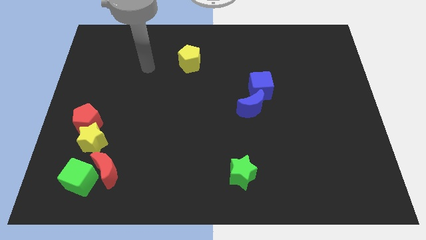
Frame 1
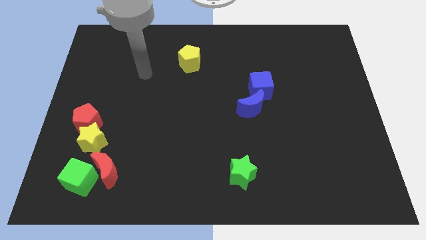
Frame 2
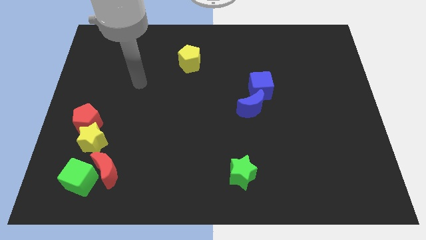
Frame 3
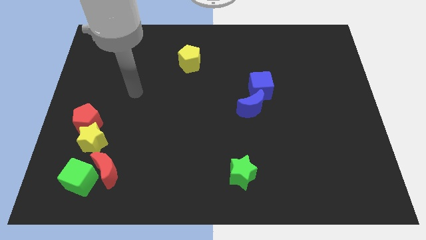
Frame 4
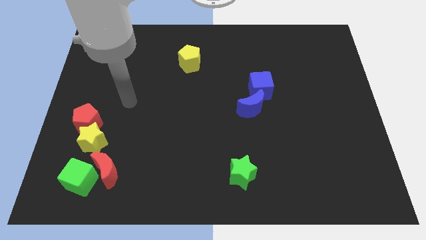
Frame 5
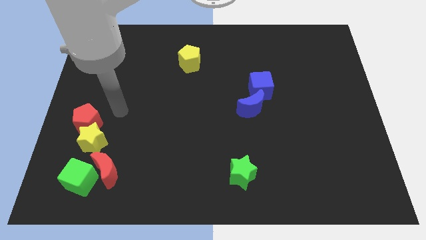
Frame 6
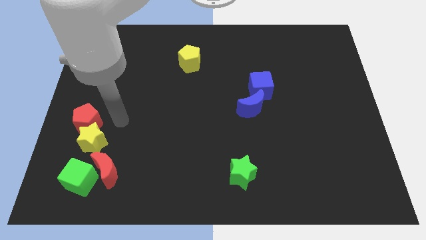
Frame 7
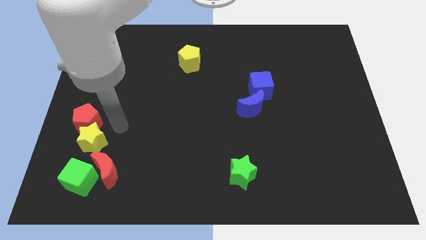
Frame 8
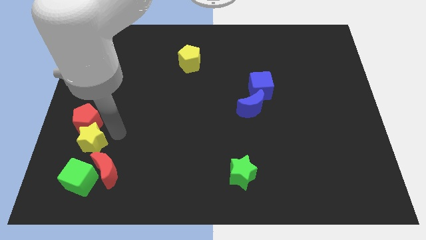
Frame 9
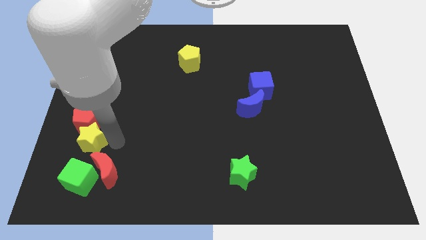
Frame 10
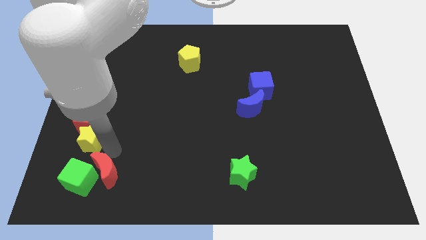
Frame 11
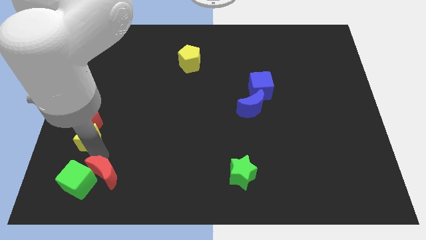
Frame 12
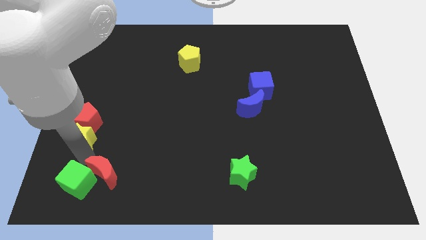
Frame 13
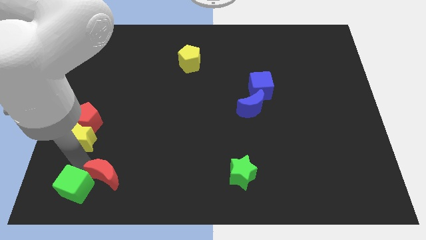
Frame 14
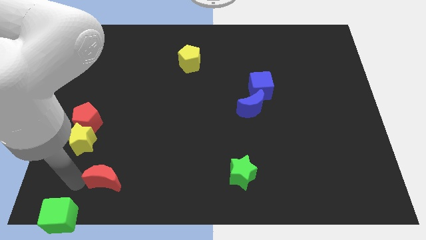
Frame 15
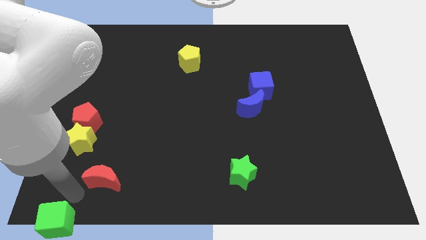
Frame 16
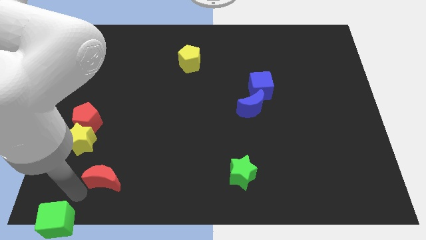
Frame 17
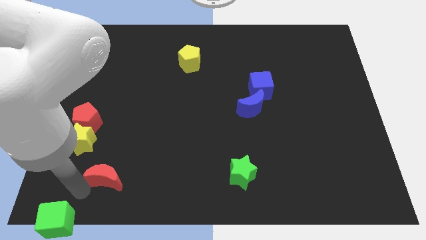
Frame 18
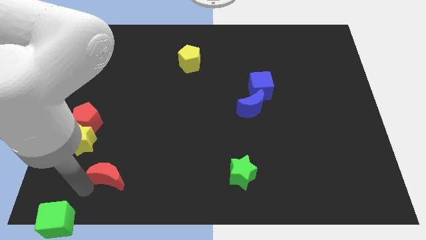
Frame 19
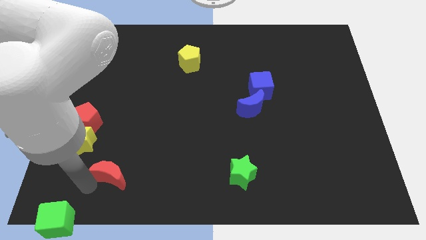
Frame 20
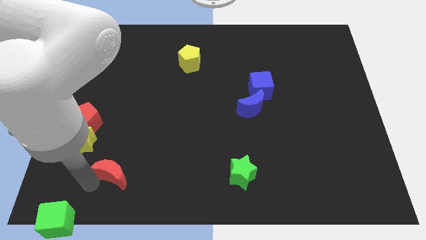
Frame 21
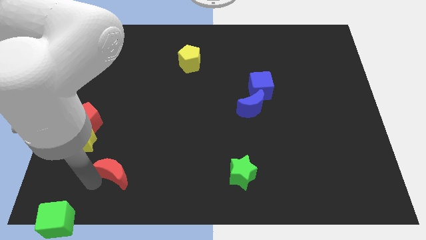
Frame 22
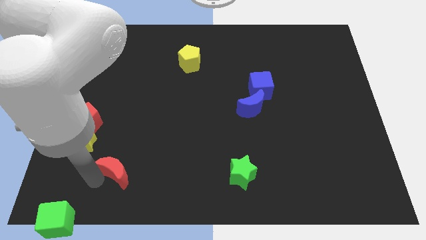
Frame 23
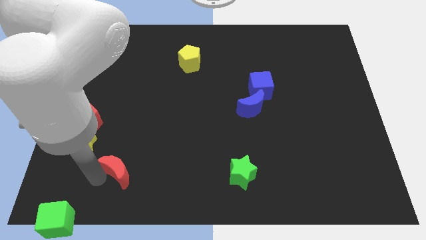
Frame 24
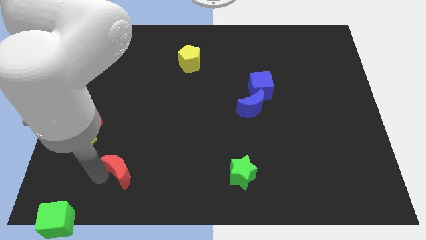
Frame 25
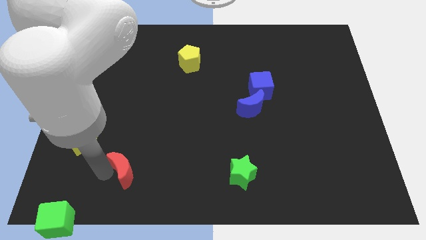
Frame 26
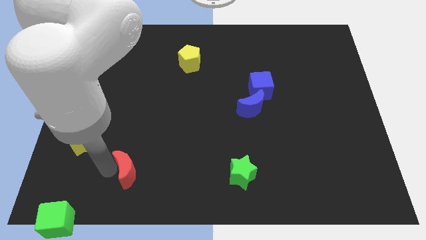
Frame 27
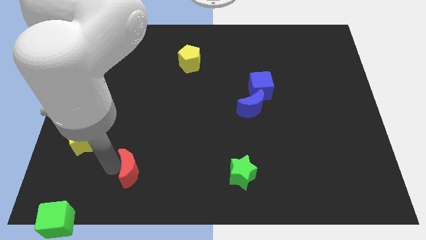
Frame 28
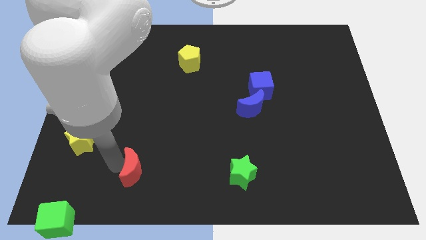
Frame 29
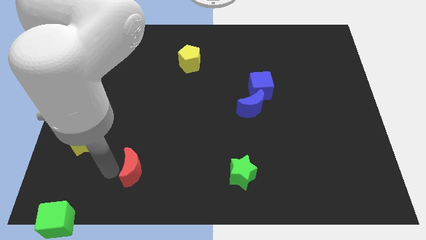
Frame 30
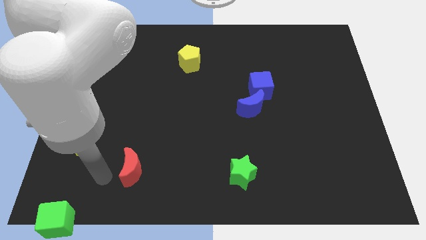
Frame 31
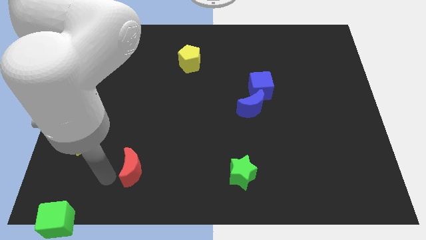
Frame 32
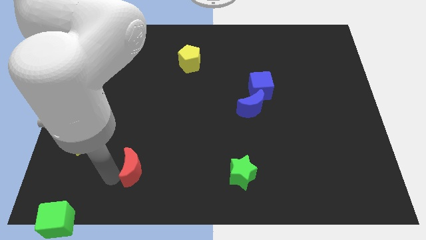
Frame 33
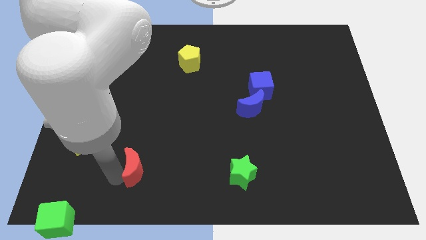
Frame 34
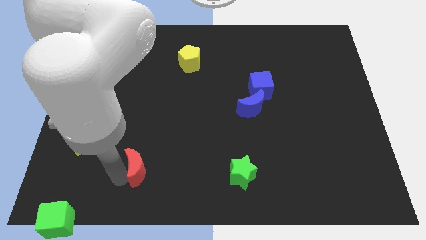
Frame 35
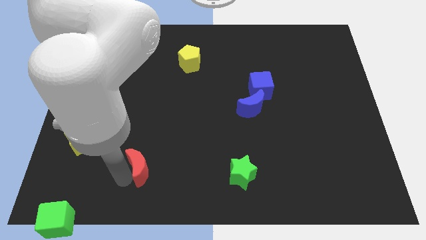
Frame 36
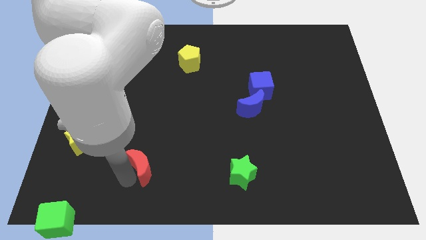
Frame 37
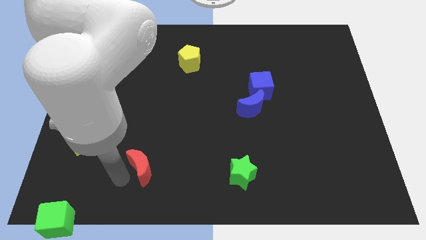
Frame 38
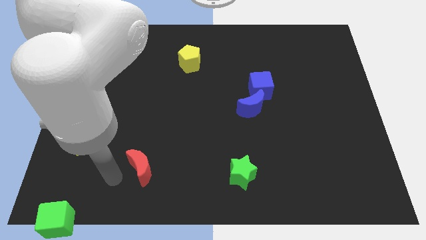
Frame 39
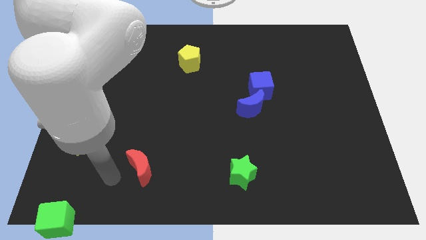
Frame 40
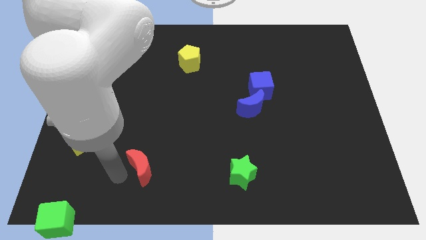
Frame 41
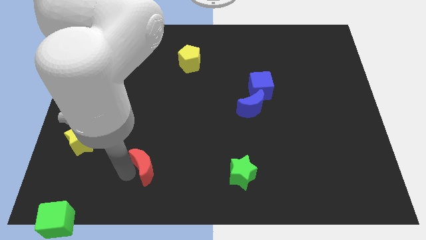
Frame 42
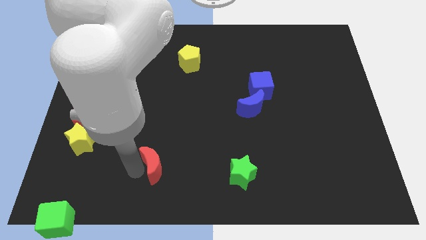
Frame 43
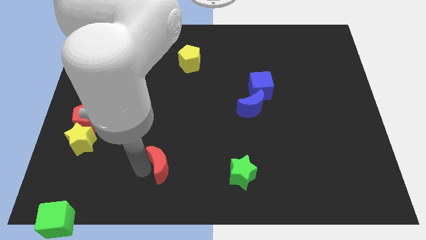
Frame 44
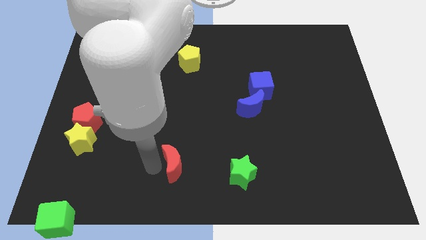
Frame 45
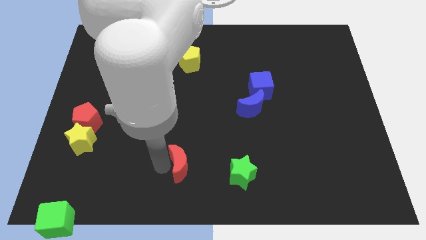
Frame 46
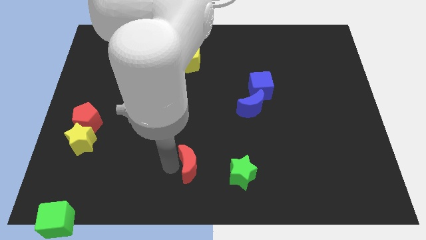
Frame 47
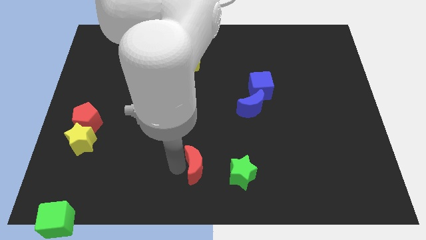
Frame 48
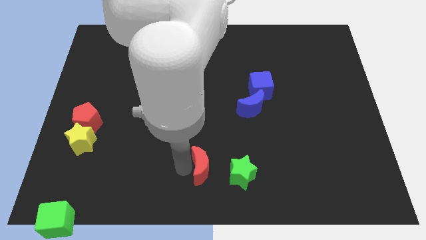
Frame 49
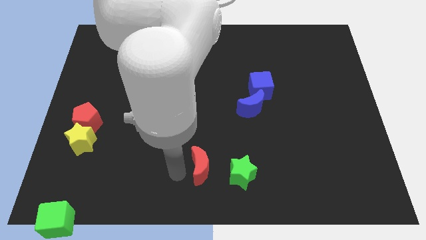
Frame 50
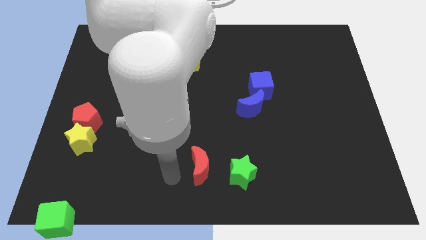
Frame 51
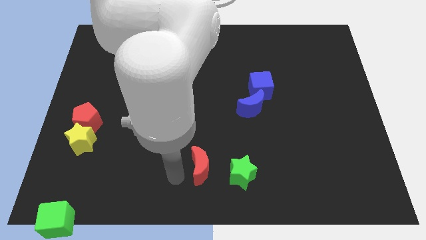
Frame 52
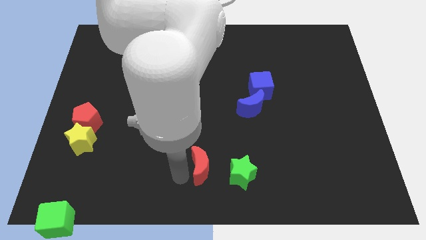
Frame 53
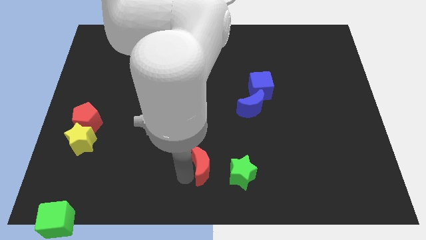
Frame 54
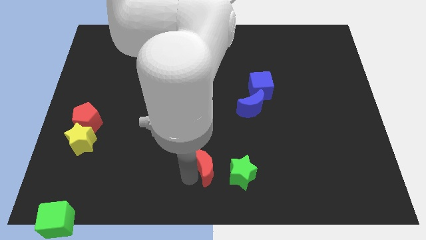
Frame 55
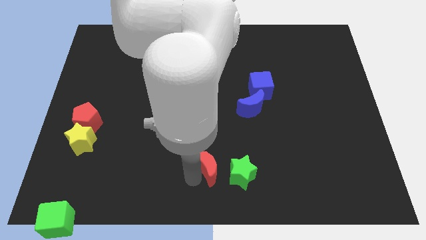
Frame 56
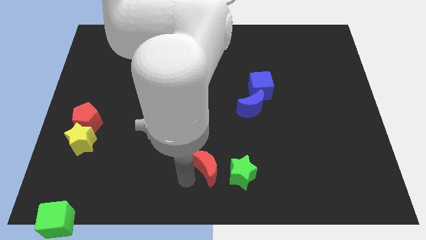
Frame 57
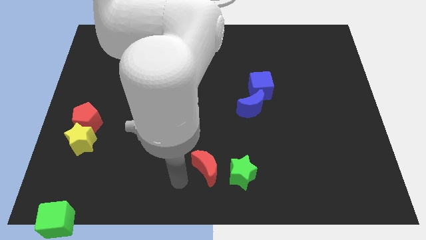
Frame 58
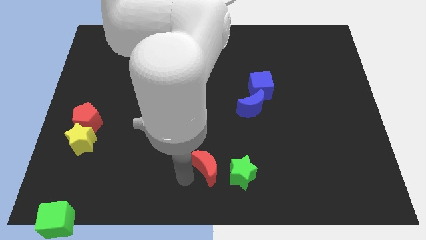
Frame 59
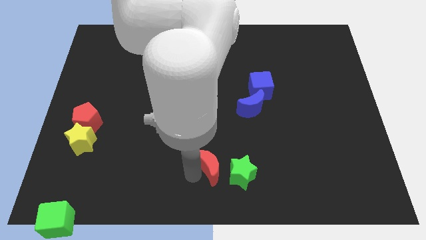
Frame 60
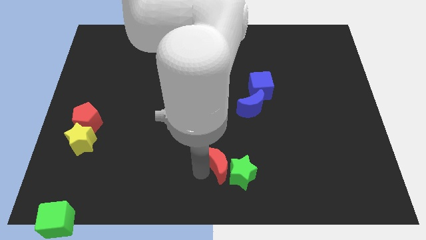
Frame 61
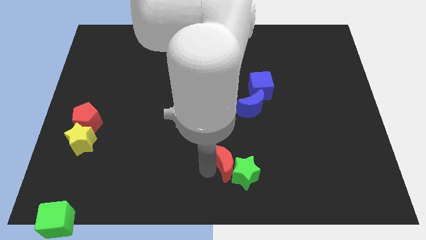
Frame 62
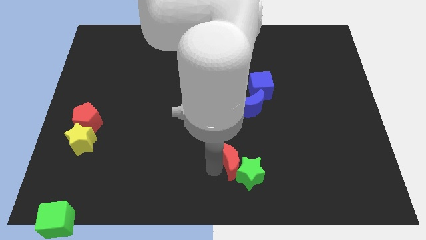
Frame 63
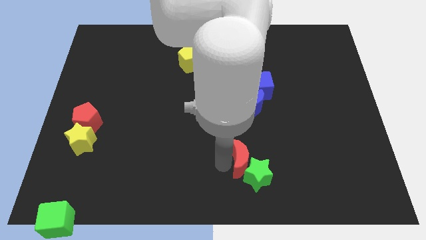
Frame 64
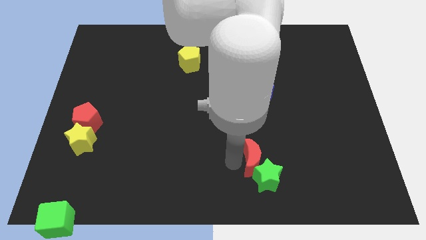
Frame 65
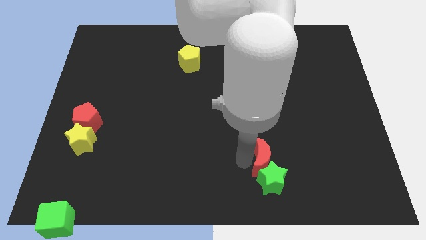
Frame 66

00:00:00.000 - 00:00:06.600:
slide the red moon diagonally up and to the right of the green star
